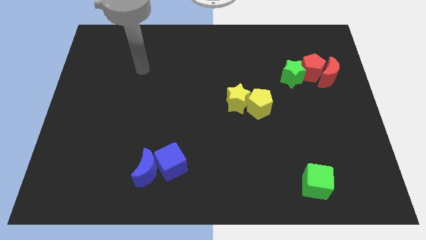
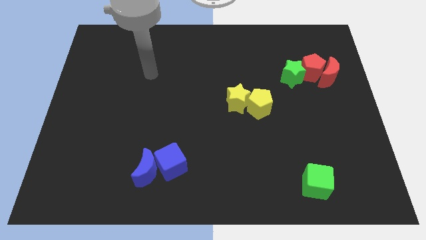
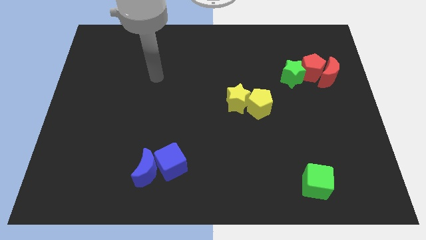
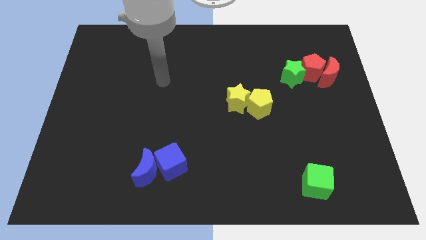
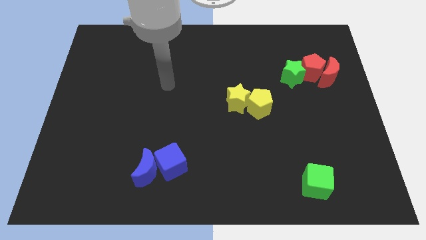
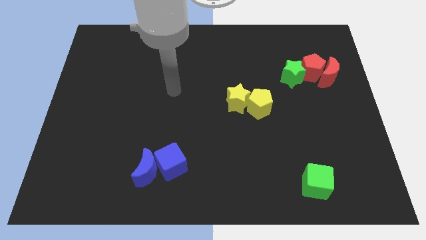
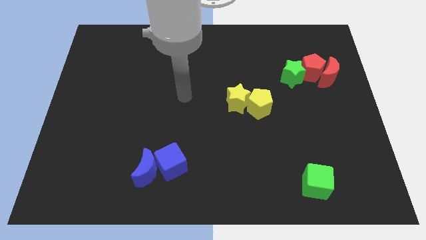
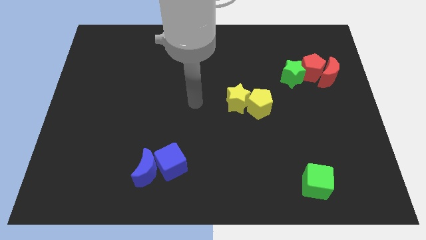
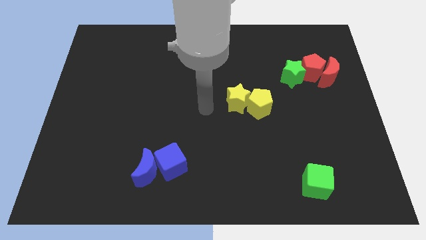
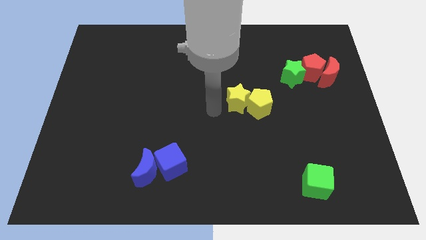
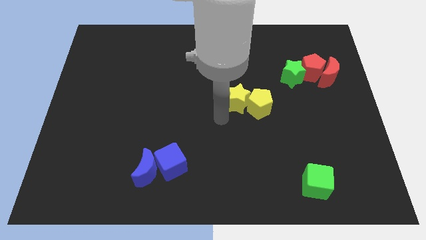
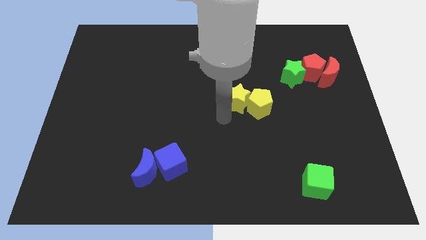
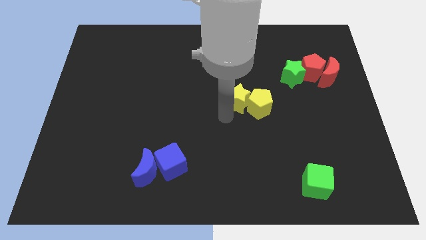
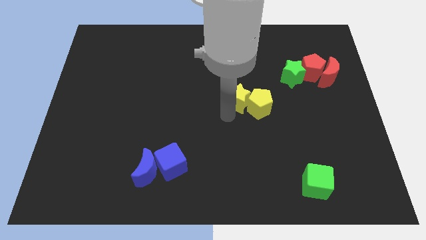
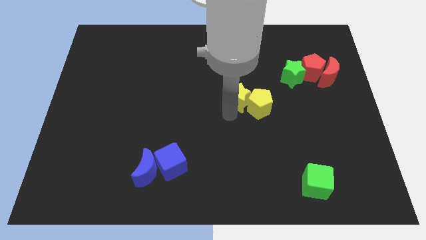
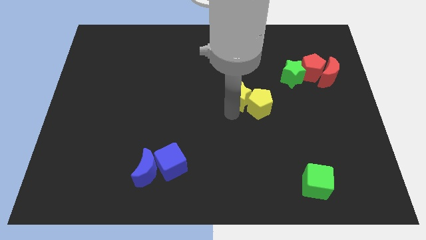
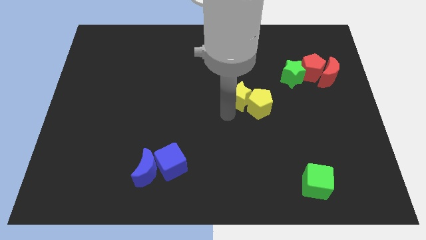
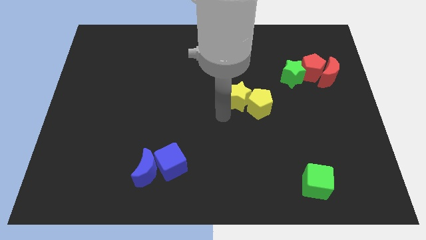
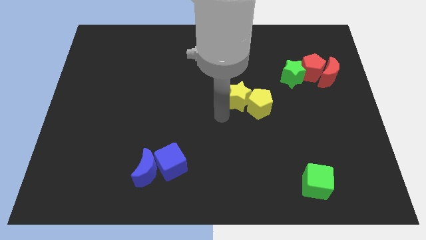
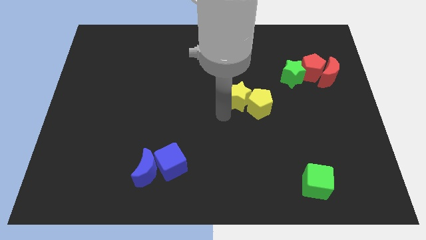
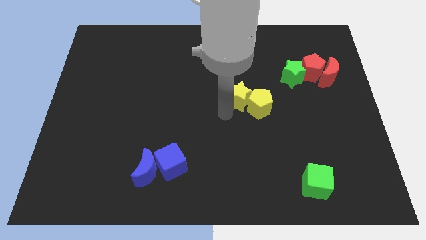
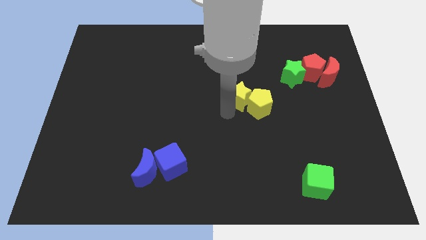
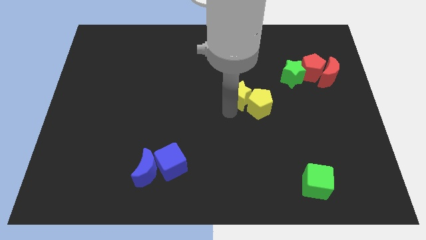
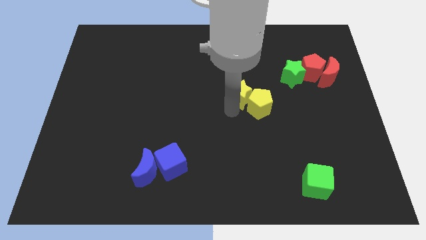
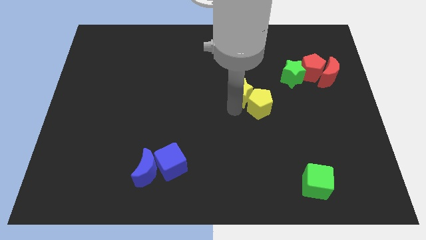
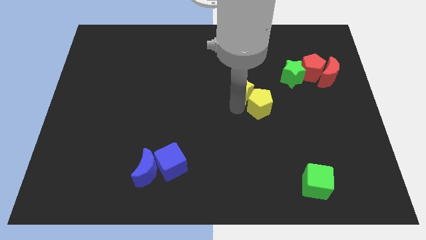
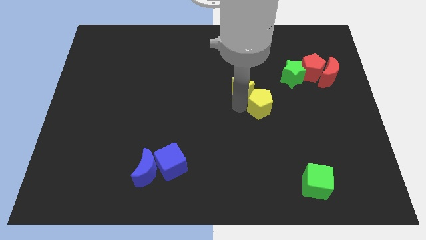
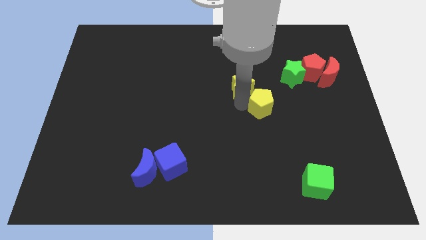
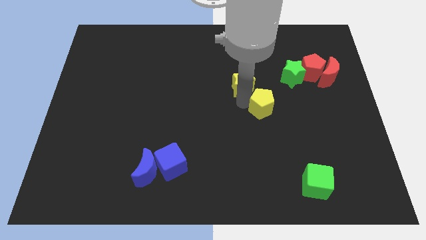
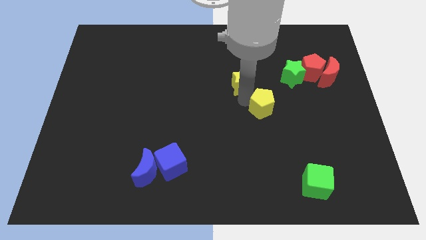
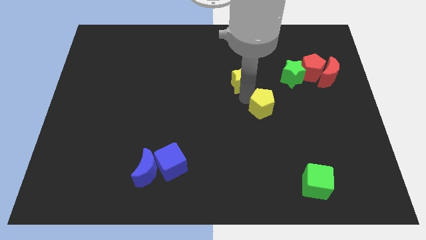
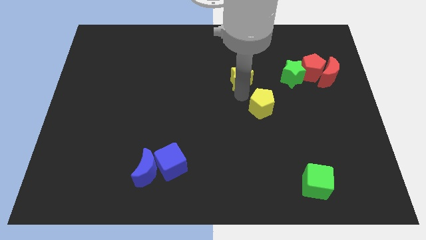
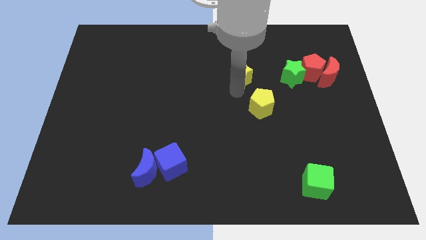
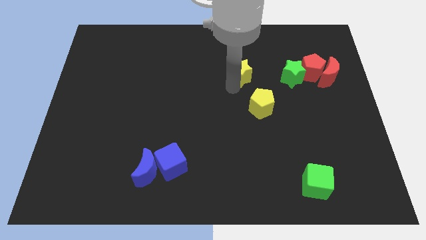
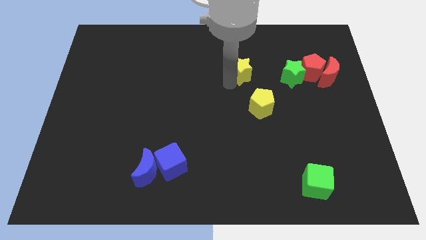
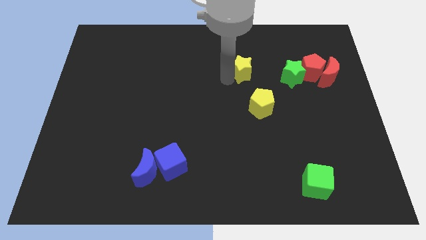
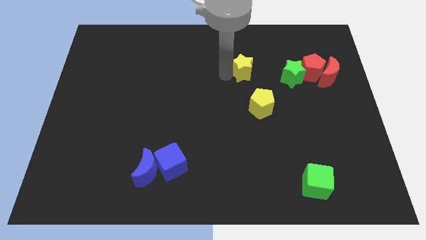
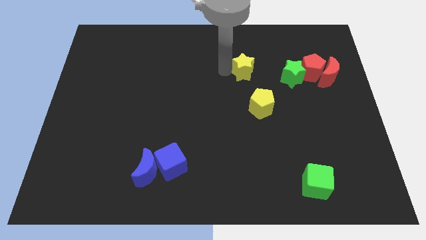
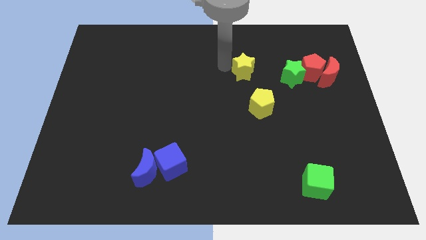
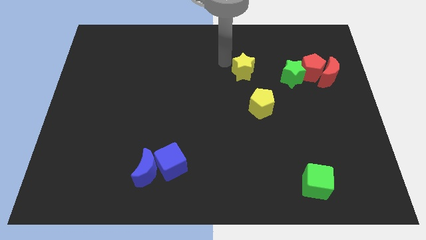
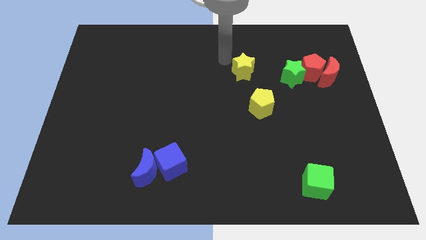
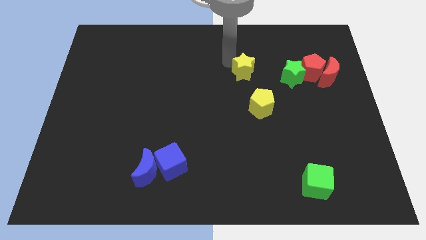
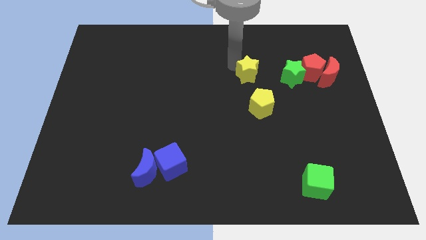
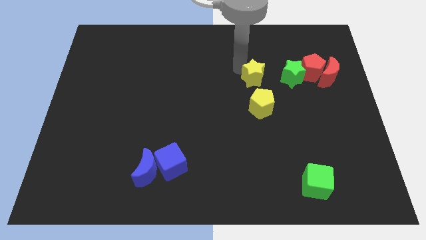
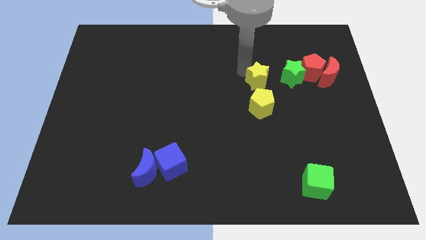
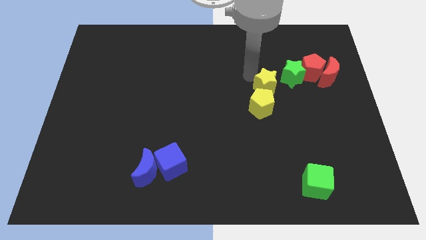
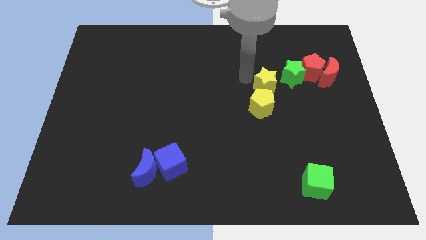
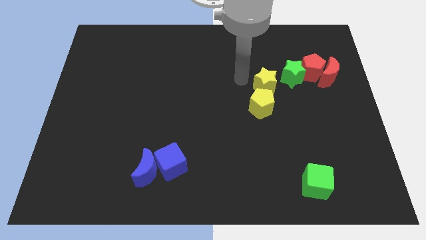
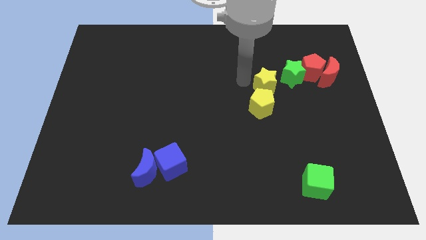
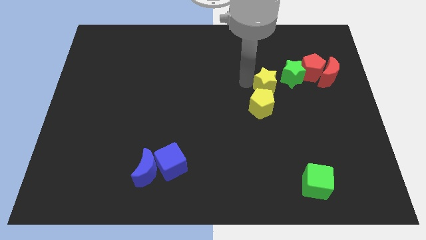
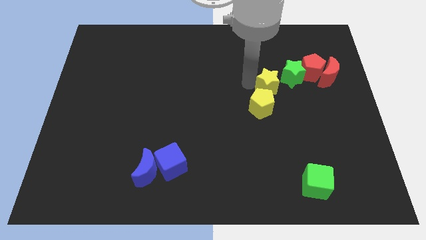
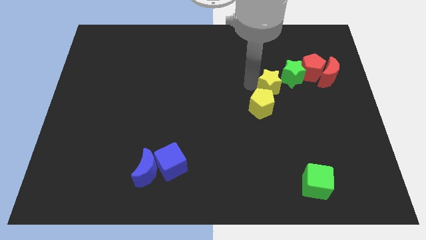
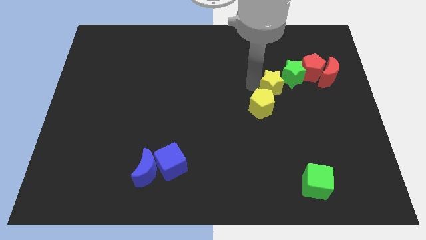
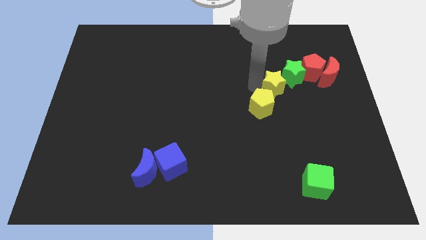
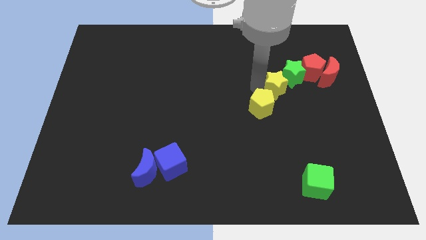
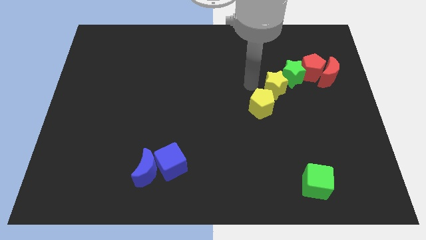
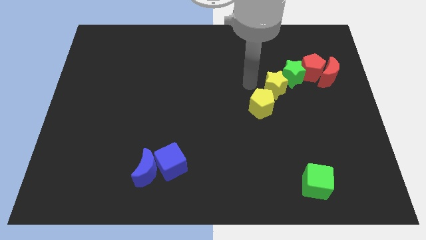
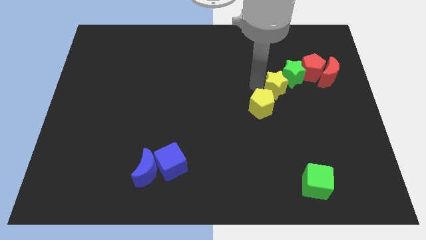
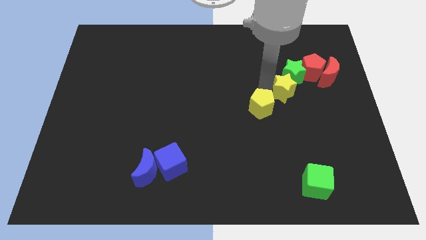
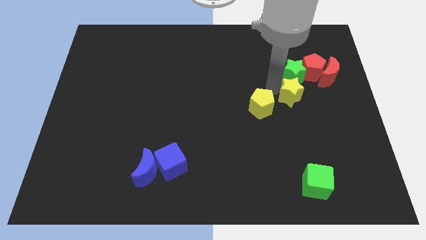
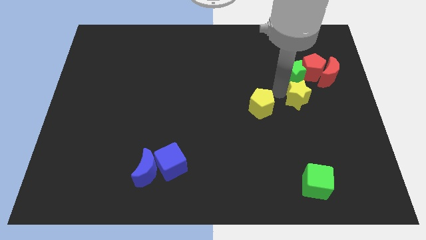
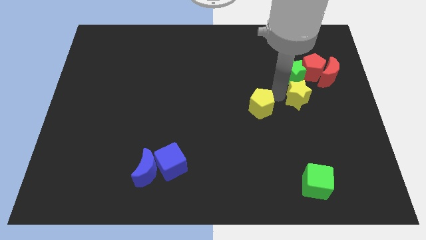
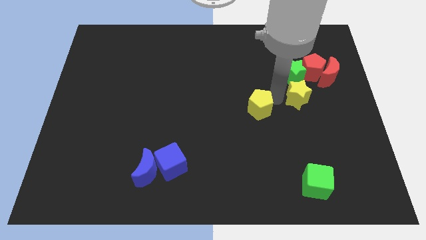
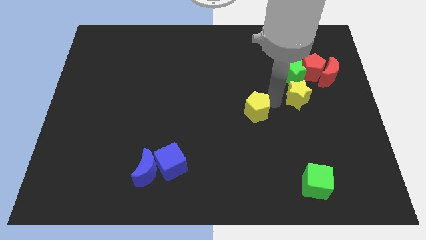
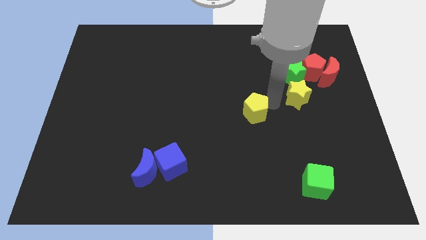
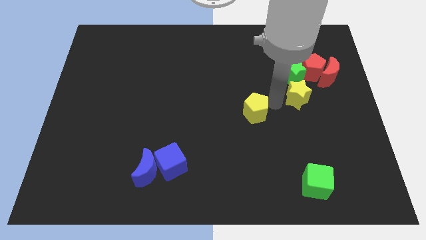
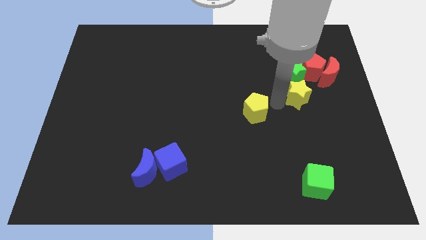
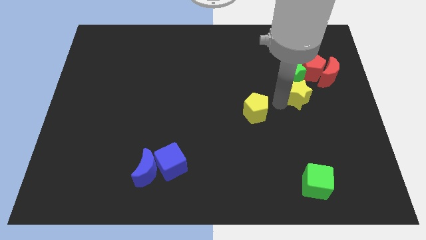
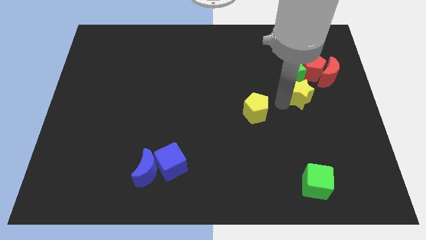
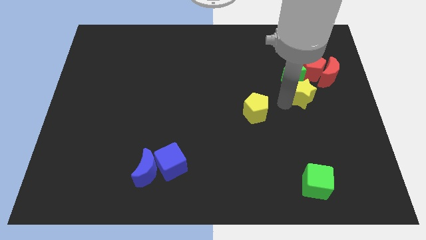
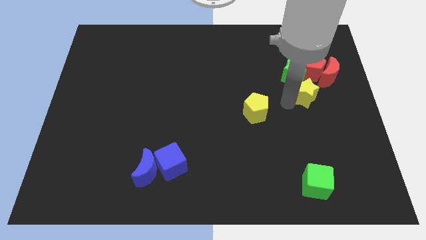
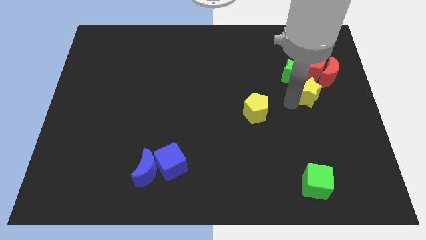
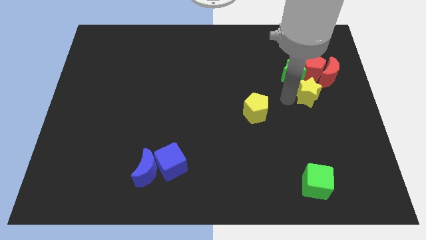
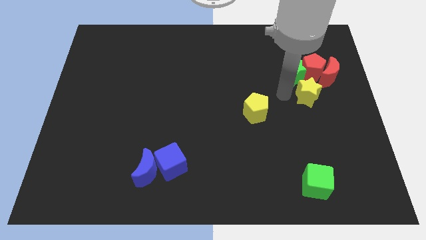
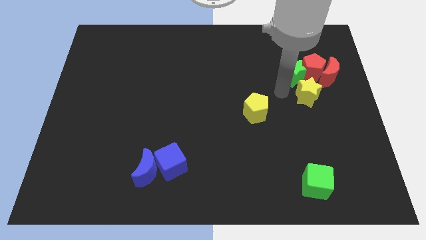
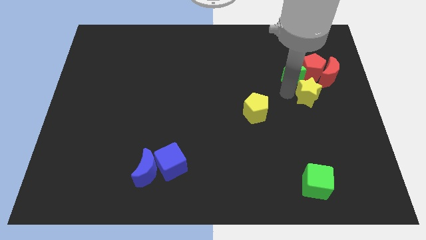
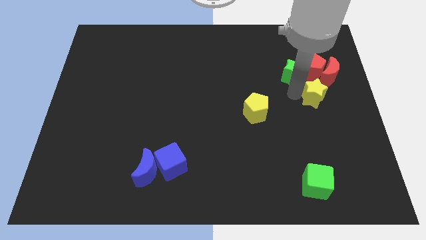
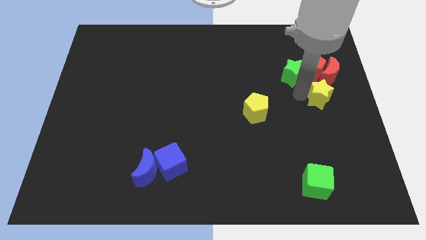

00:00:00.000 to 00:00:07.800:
slide the yellow star to the right side
